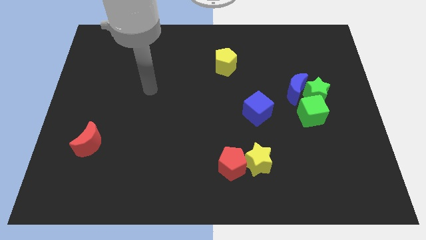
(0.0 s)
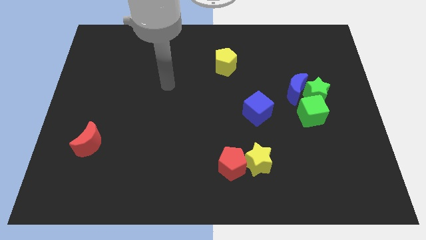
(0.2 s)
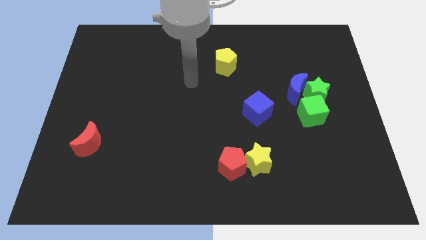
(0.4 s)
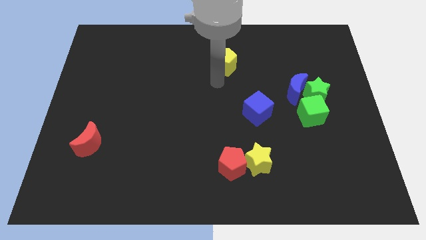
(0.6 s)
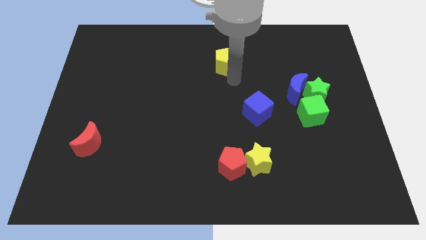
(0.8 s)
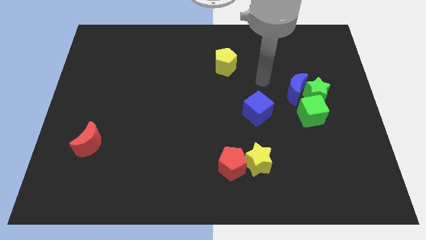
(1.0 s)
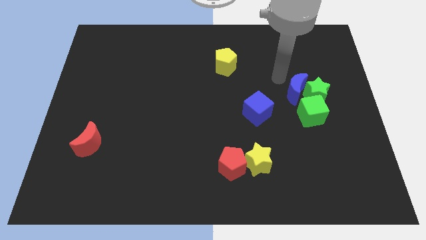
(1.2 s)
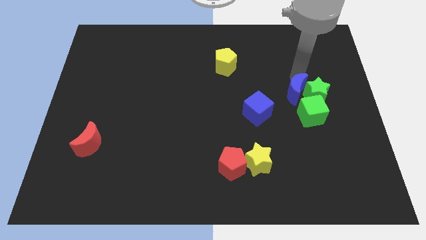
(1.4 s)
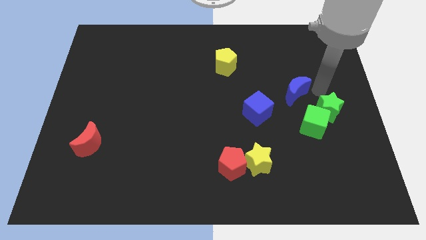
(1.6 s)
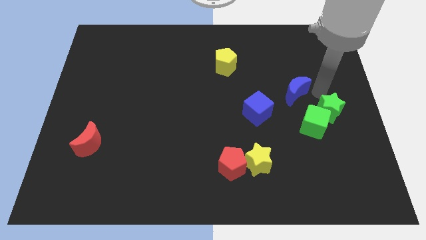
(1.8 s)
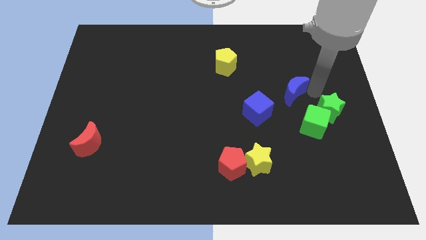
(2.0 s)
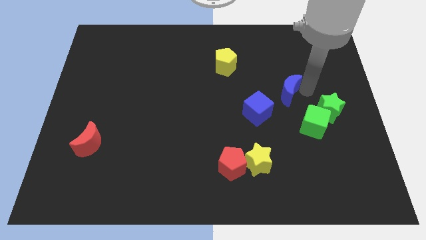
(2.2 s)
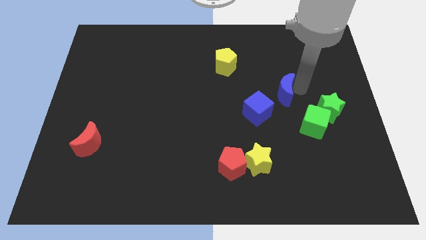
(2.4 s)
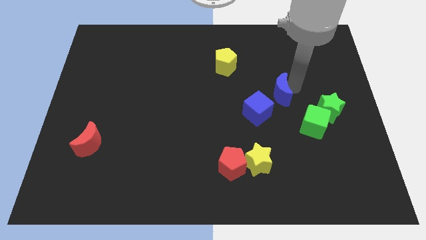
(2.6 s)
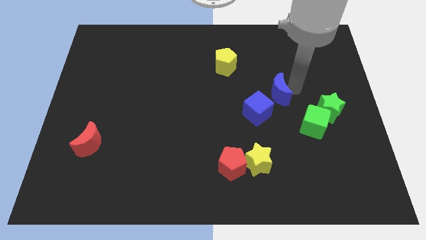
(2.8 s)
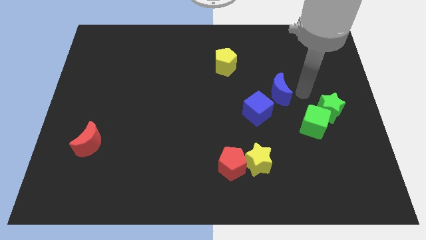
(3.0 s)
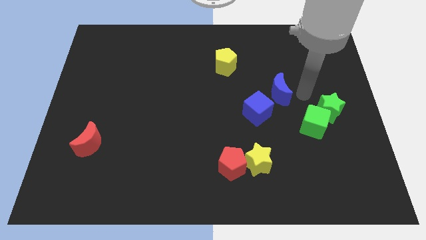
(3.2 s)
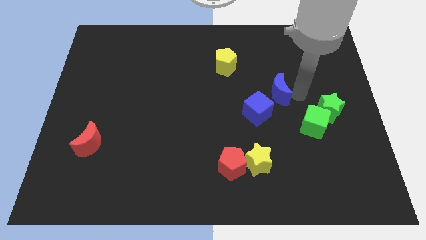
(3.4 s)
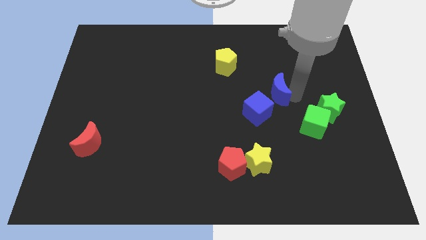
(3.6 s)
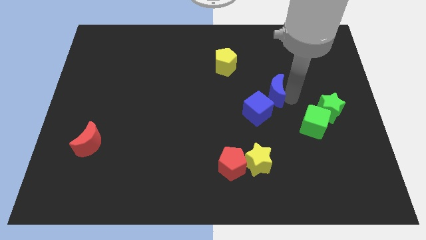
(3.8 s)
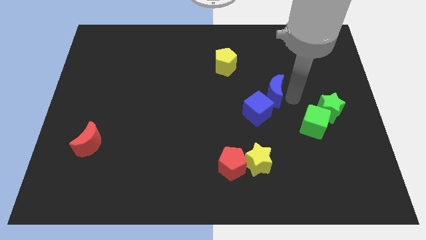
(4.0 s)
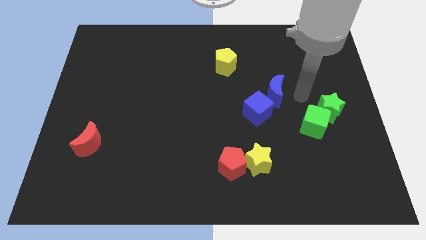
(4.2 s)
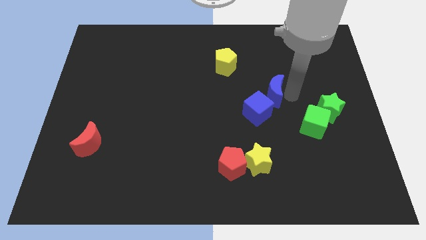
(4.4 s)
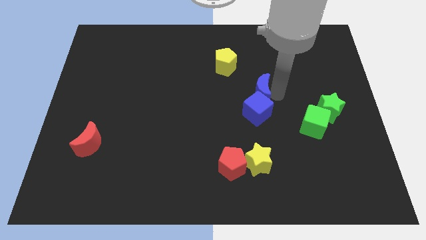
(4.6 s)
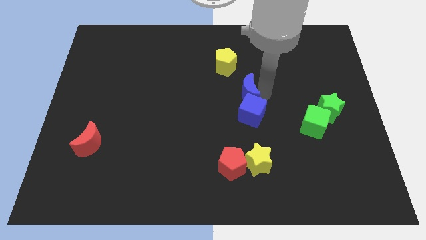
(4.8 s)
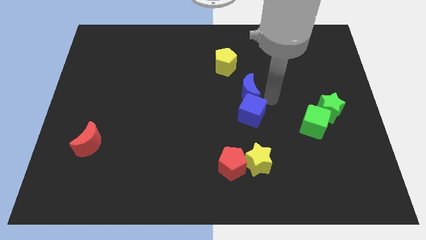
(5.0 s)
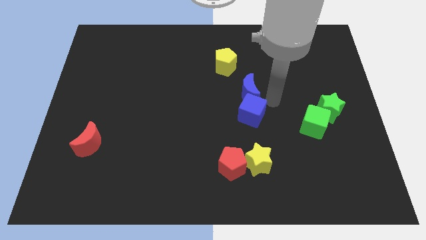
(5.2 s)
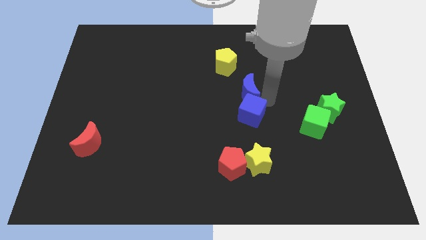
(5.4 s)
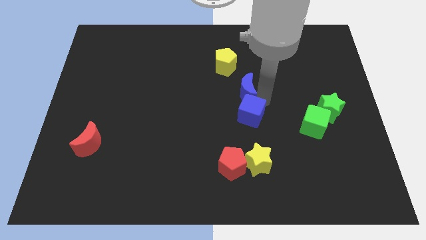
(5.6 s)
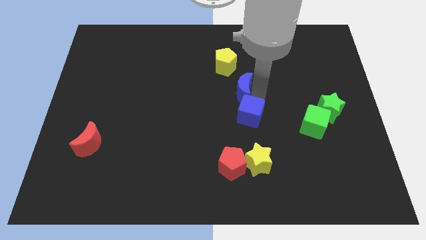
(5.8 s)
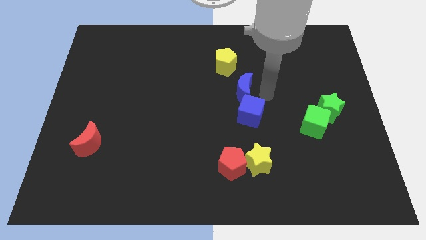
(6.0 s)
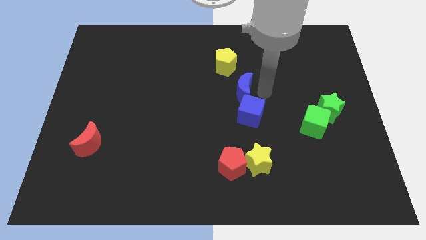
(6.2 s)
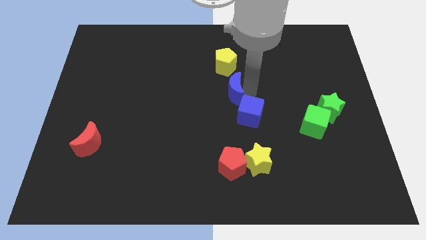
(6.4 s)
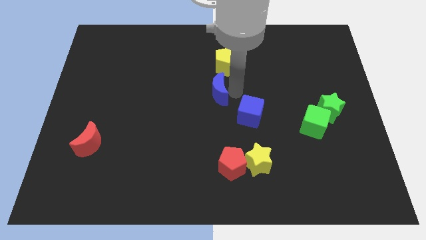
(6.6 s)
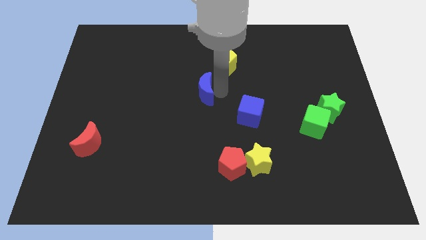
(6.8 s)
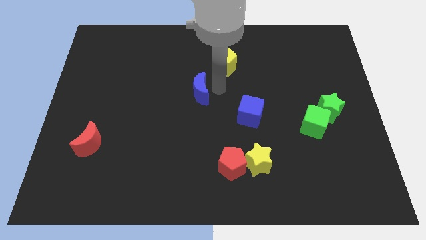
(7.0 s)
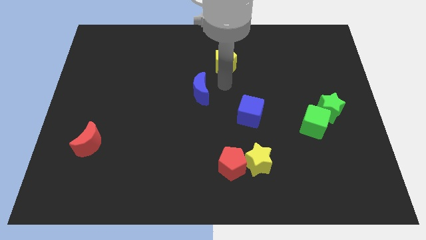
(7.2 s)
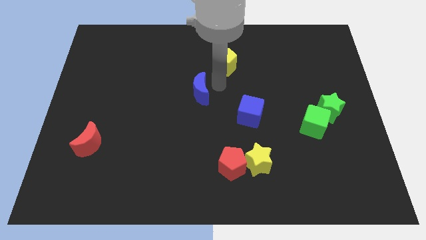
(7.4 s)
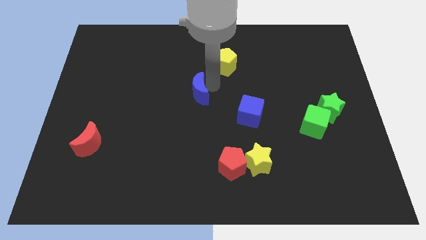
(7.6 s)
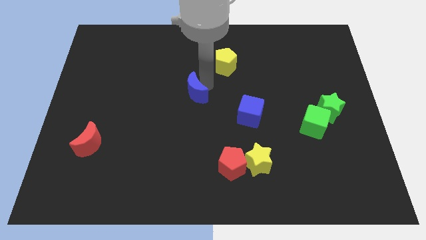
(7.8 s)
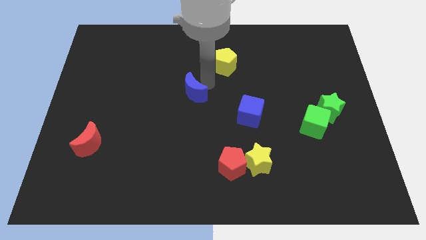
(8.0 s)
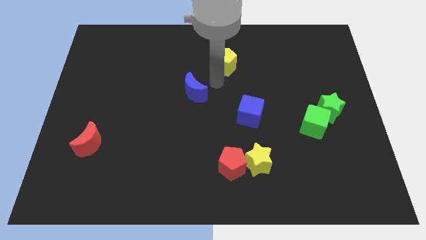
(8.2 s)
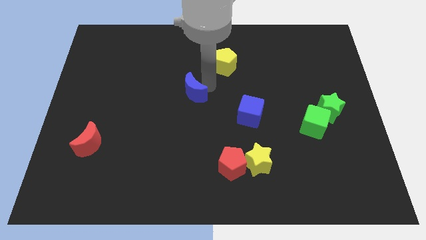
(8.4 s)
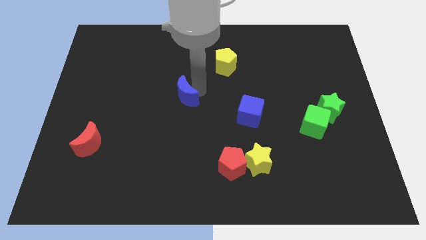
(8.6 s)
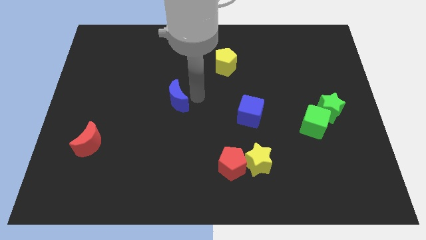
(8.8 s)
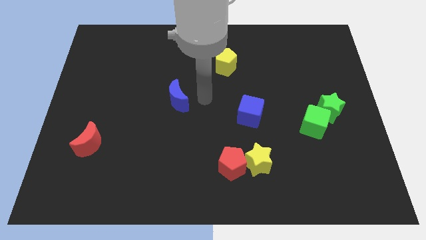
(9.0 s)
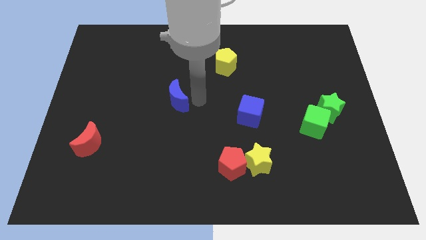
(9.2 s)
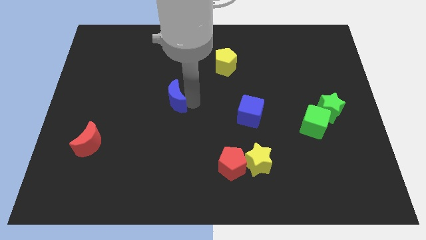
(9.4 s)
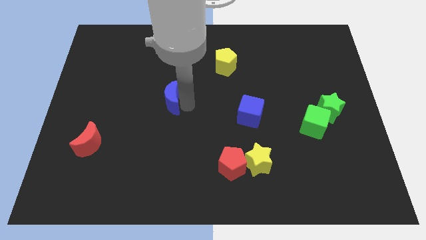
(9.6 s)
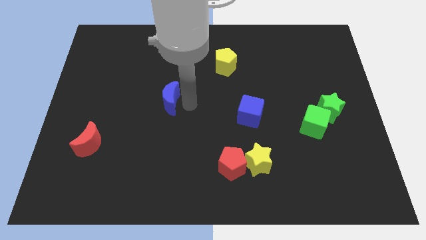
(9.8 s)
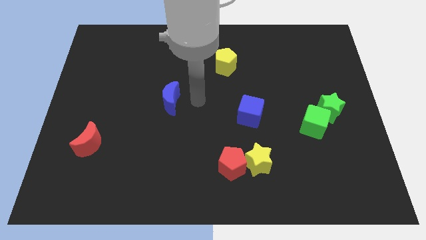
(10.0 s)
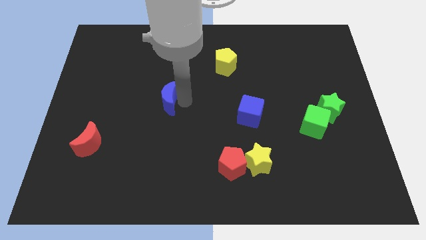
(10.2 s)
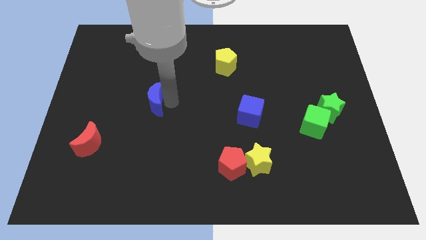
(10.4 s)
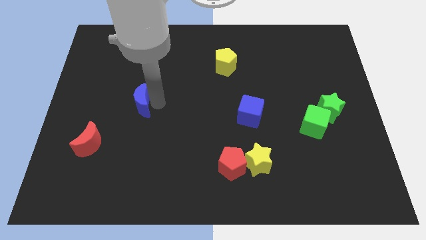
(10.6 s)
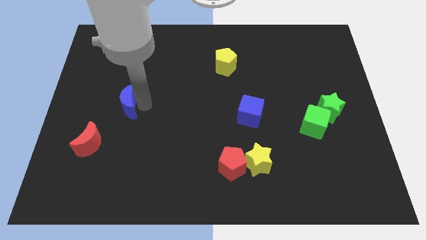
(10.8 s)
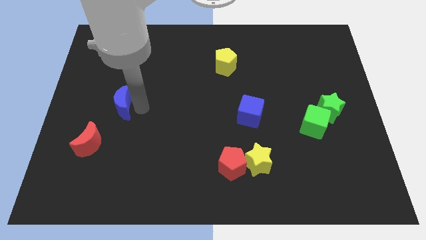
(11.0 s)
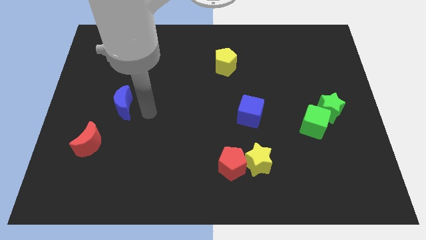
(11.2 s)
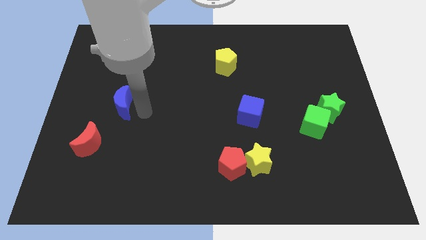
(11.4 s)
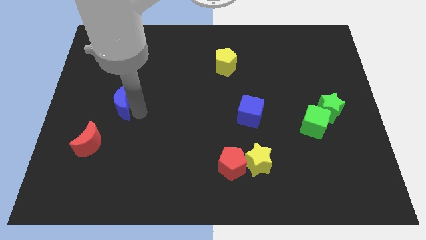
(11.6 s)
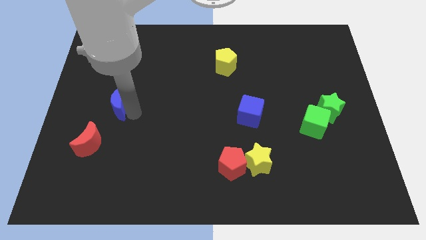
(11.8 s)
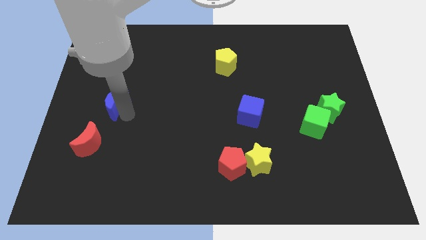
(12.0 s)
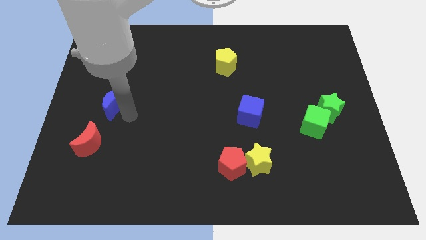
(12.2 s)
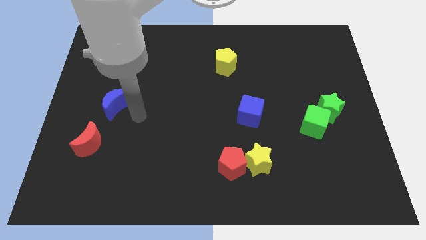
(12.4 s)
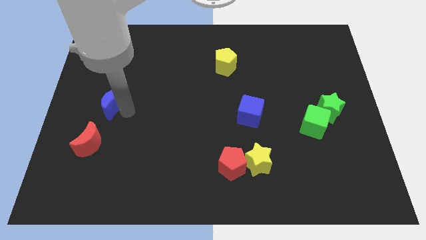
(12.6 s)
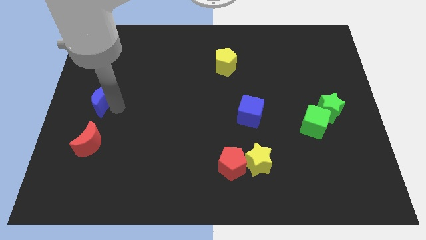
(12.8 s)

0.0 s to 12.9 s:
move the blue moon to the left side of the board
